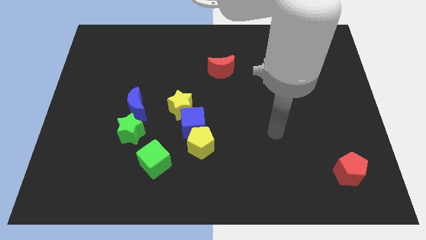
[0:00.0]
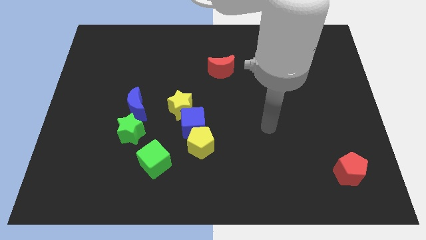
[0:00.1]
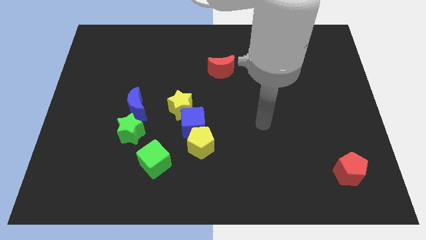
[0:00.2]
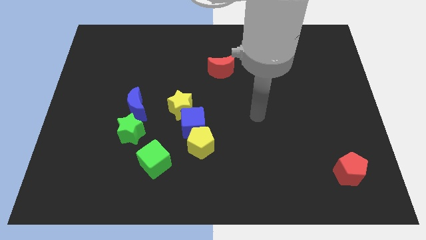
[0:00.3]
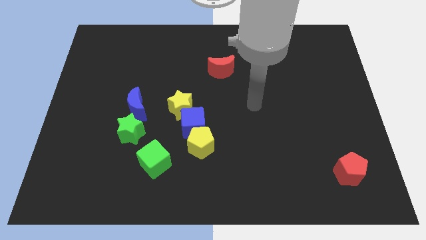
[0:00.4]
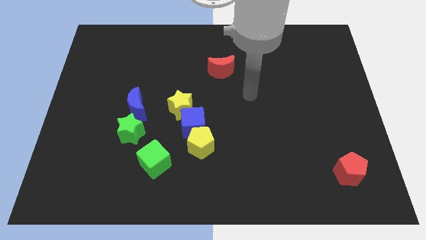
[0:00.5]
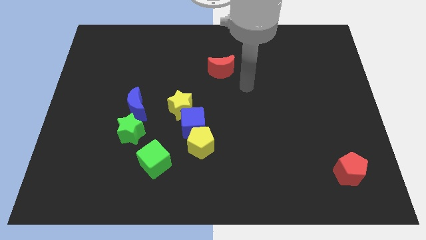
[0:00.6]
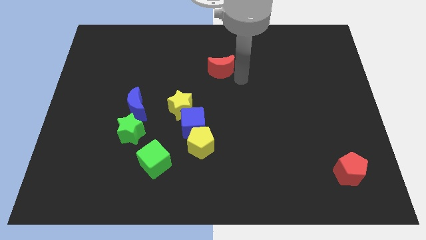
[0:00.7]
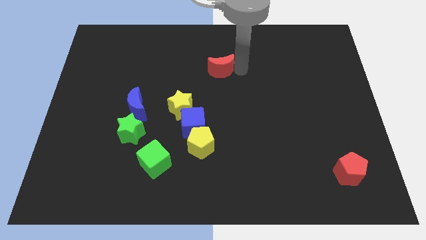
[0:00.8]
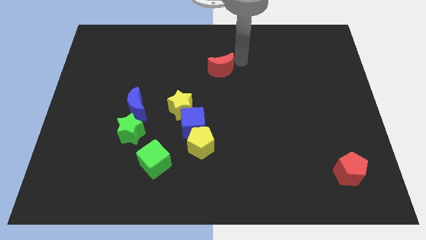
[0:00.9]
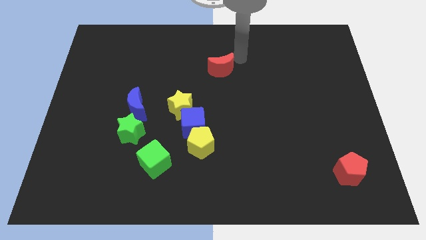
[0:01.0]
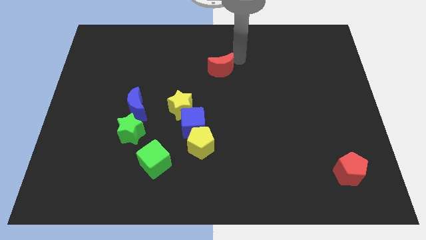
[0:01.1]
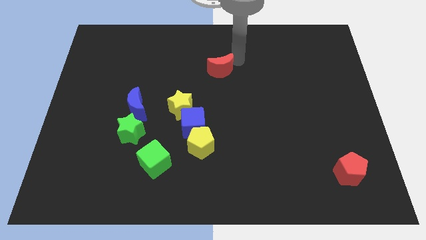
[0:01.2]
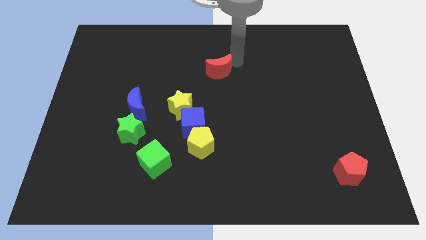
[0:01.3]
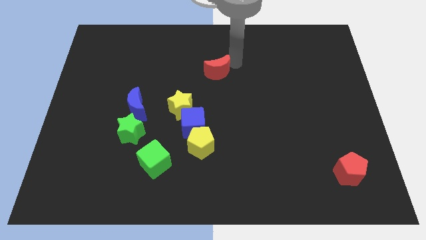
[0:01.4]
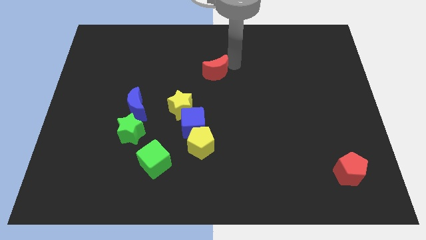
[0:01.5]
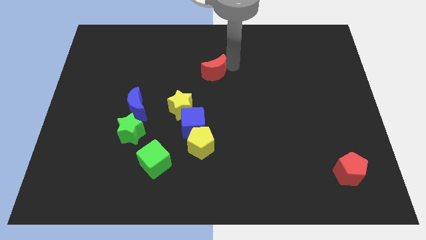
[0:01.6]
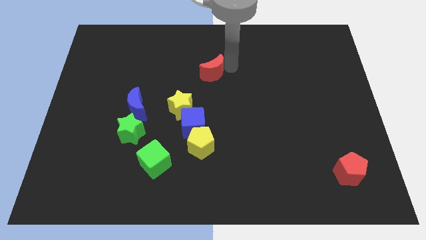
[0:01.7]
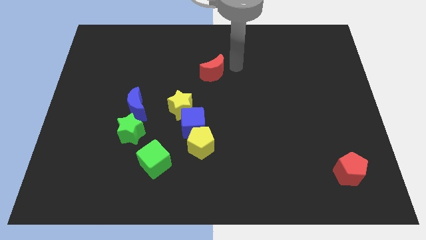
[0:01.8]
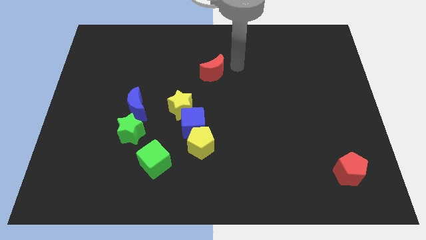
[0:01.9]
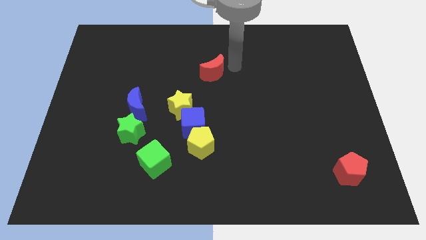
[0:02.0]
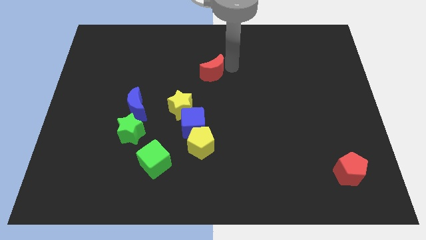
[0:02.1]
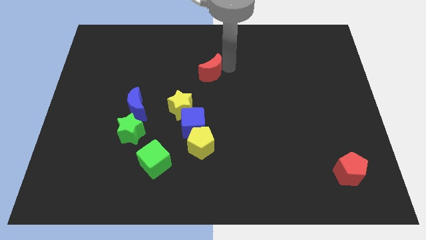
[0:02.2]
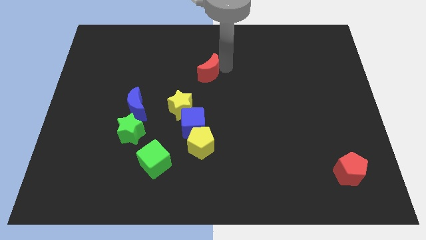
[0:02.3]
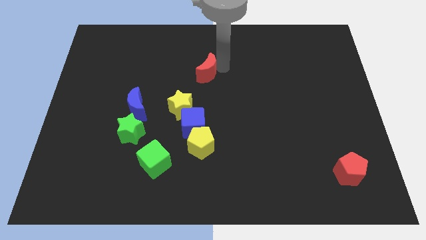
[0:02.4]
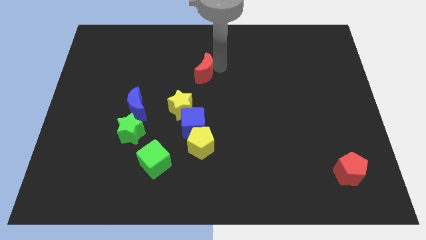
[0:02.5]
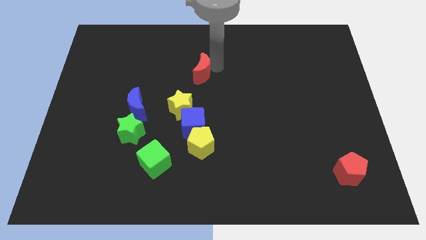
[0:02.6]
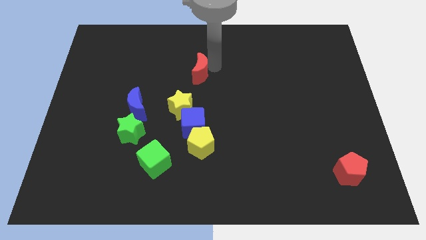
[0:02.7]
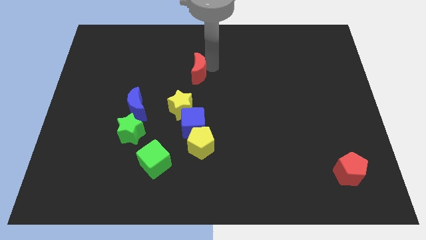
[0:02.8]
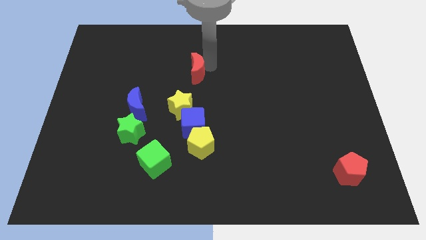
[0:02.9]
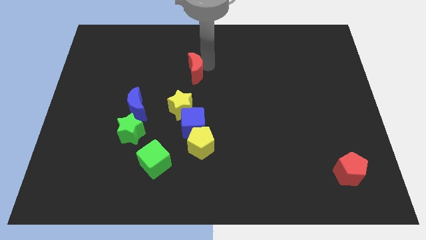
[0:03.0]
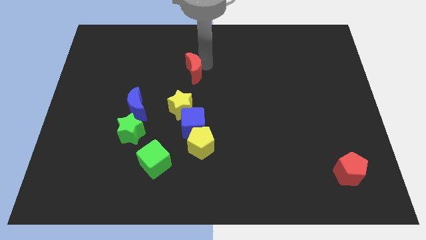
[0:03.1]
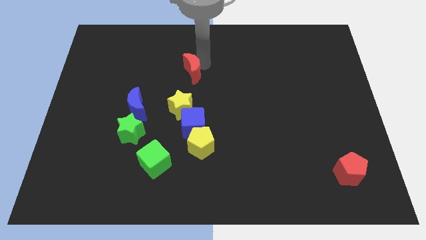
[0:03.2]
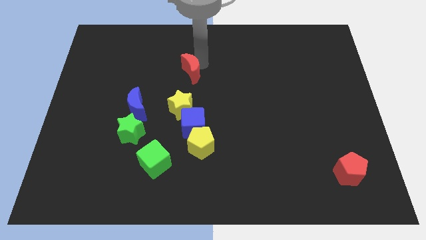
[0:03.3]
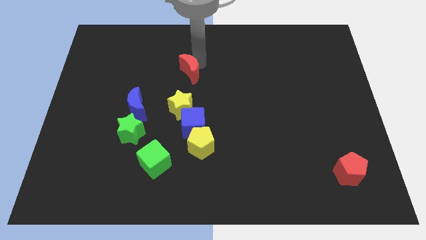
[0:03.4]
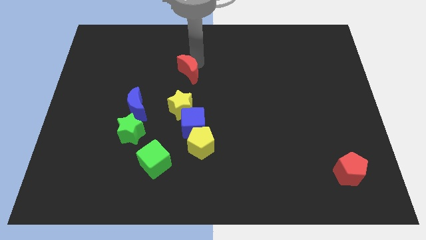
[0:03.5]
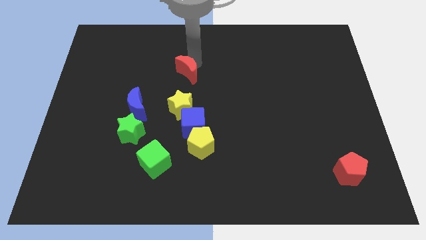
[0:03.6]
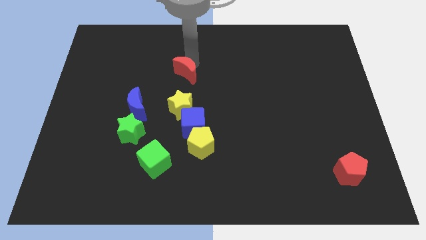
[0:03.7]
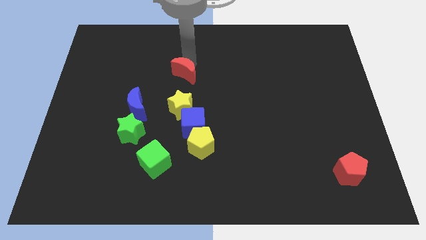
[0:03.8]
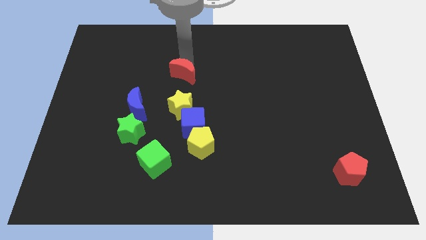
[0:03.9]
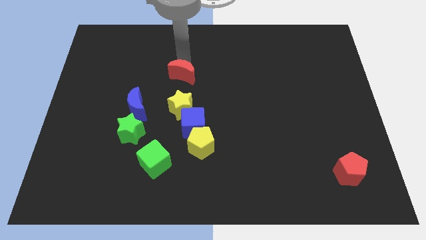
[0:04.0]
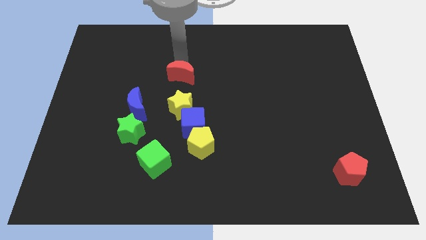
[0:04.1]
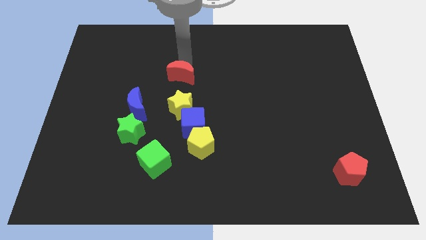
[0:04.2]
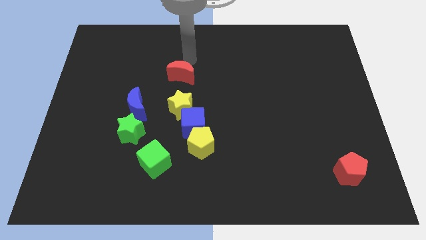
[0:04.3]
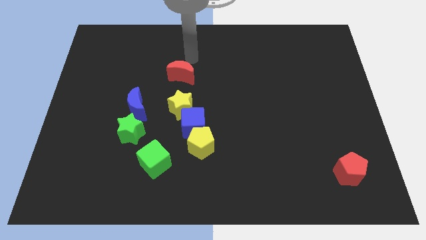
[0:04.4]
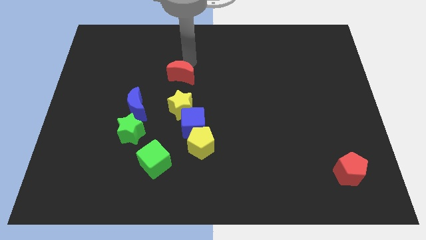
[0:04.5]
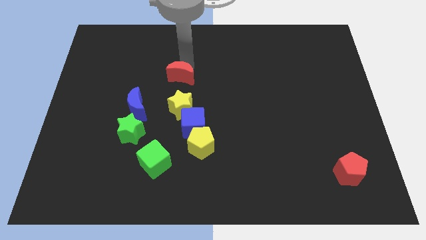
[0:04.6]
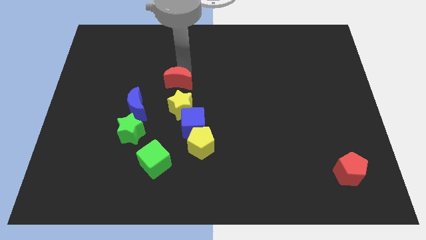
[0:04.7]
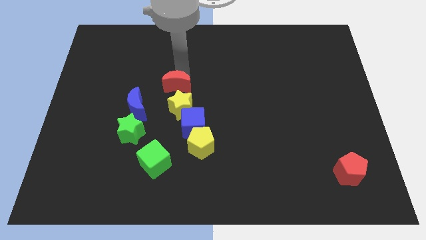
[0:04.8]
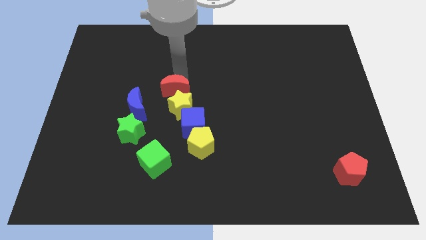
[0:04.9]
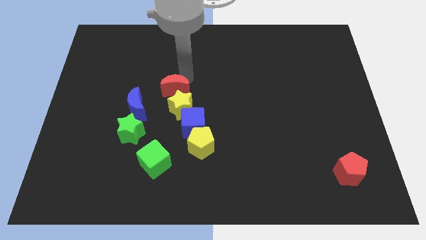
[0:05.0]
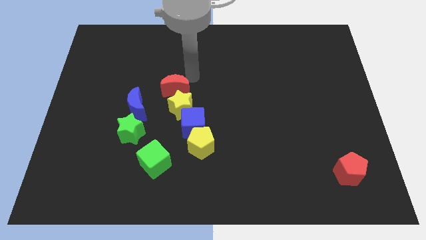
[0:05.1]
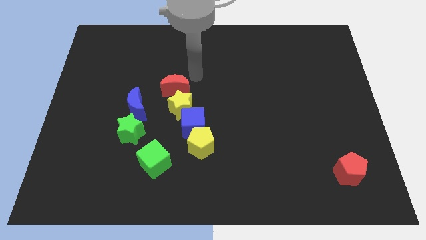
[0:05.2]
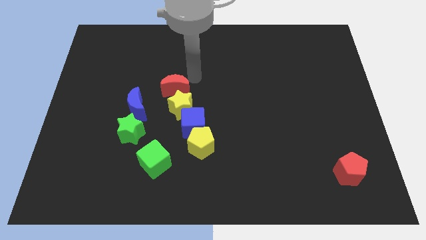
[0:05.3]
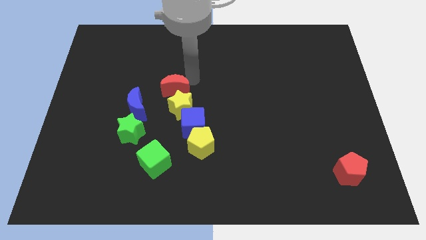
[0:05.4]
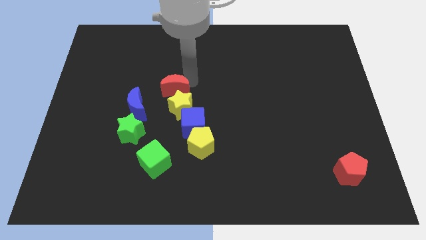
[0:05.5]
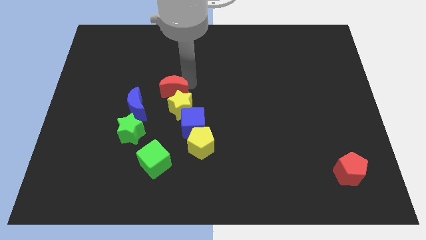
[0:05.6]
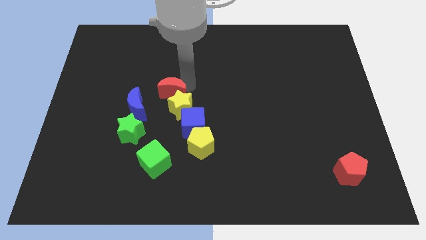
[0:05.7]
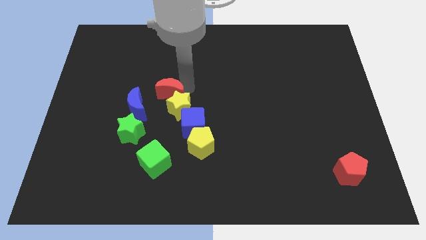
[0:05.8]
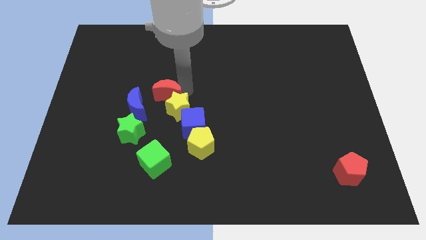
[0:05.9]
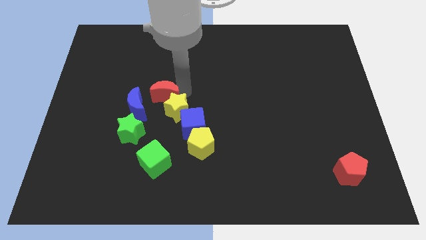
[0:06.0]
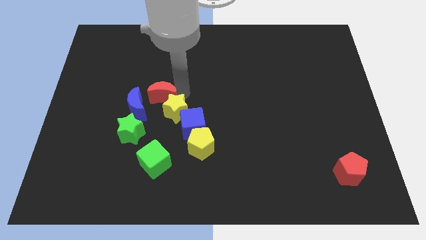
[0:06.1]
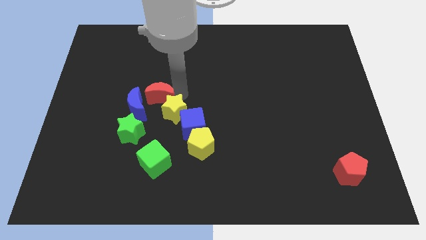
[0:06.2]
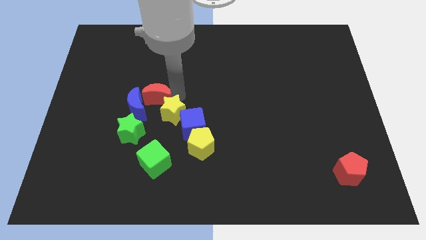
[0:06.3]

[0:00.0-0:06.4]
move the red moon to the blue moon

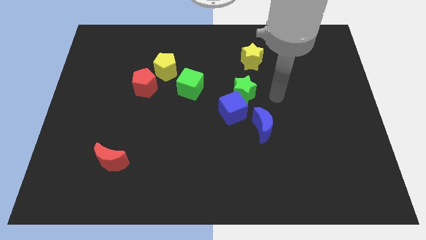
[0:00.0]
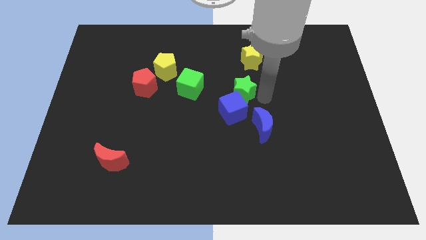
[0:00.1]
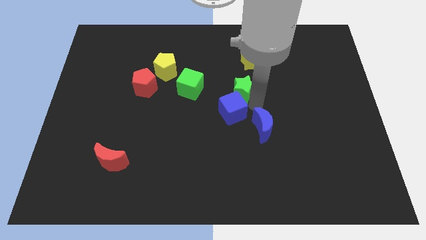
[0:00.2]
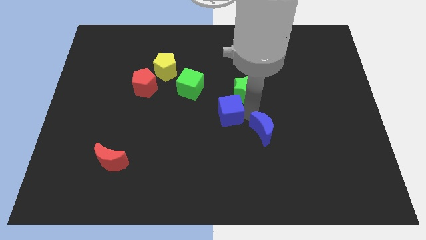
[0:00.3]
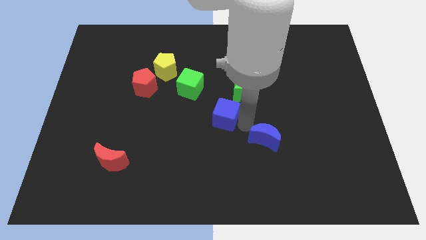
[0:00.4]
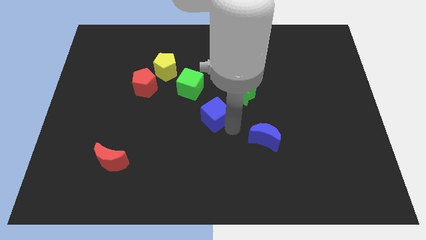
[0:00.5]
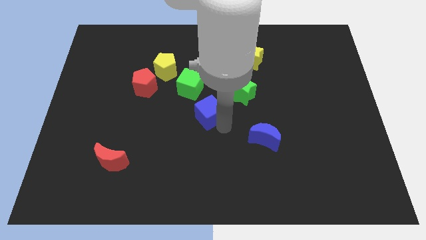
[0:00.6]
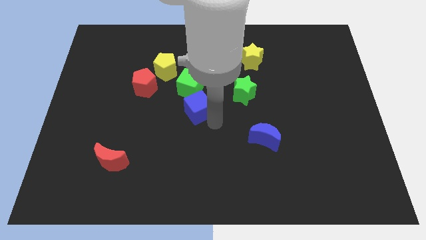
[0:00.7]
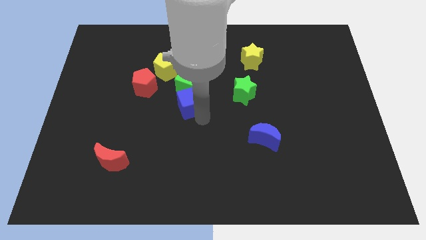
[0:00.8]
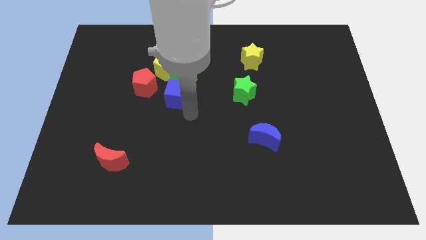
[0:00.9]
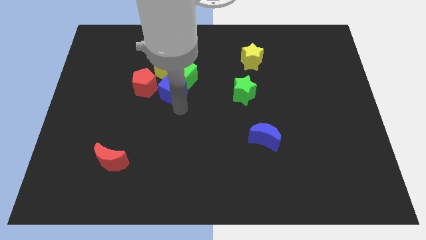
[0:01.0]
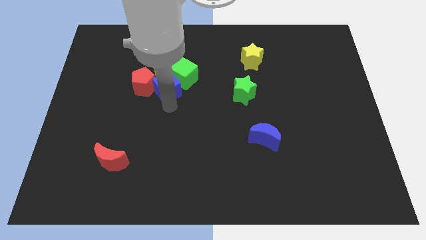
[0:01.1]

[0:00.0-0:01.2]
put the red pentagon close to the blue cube
